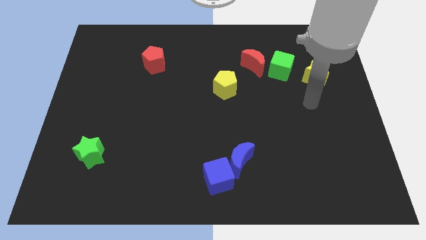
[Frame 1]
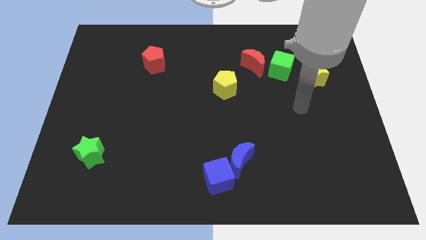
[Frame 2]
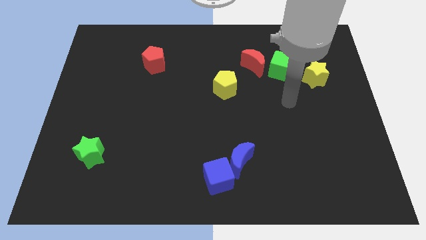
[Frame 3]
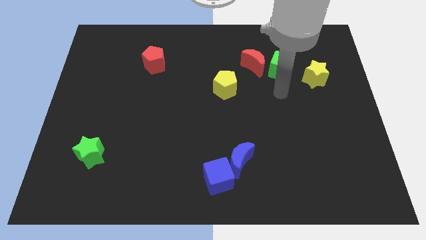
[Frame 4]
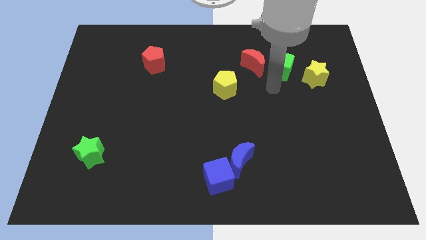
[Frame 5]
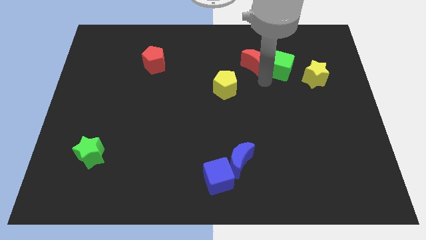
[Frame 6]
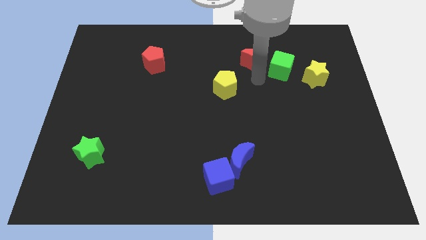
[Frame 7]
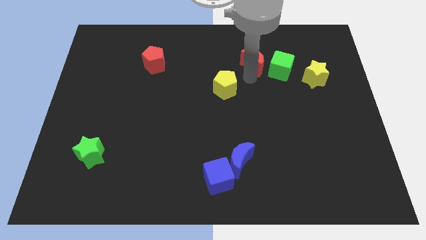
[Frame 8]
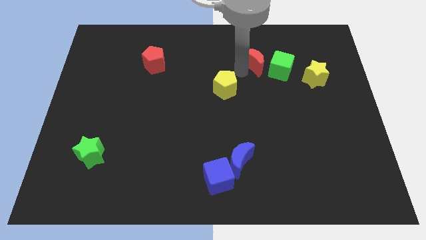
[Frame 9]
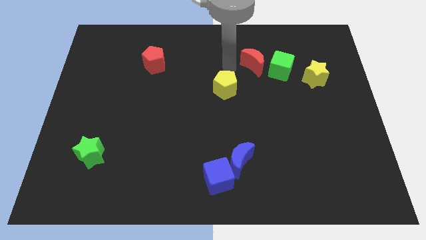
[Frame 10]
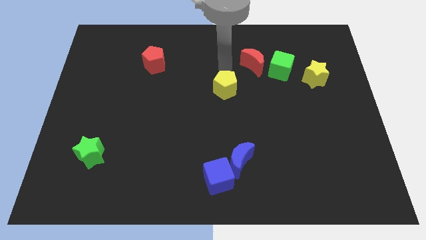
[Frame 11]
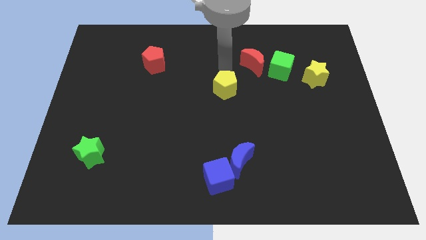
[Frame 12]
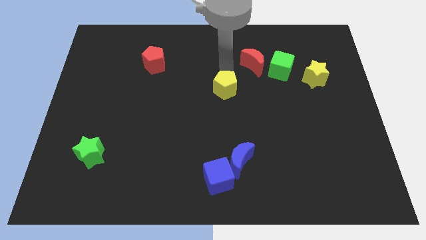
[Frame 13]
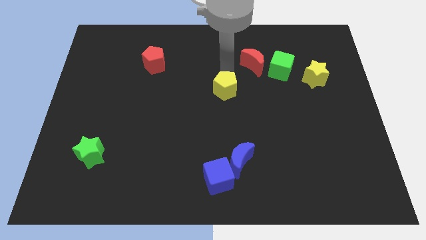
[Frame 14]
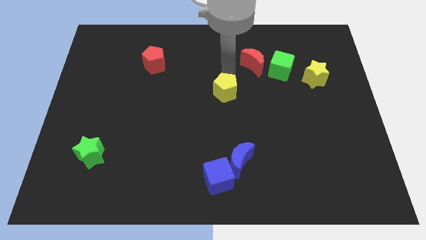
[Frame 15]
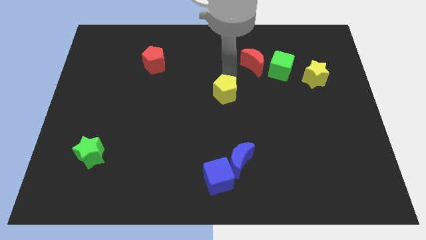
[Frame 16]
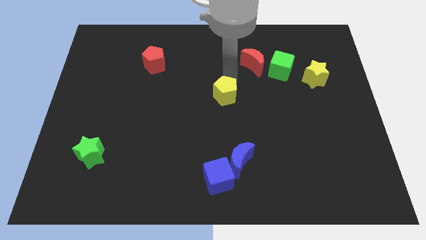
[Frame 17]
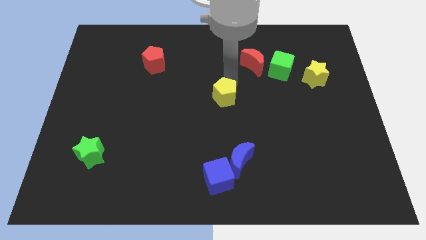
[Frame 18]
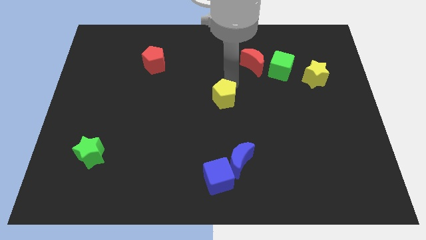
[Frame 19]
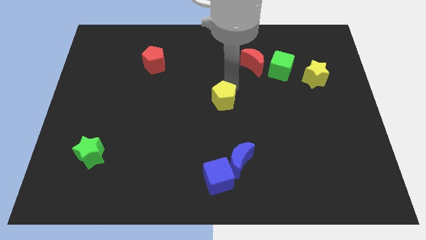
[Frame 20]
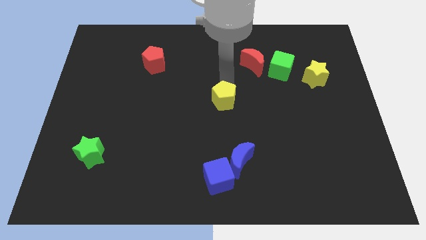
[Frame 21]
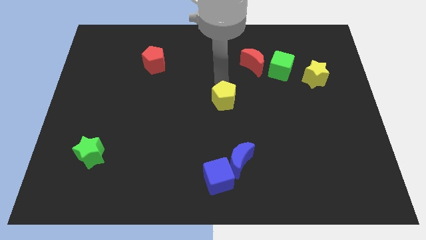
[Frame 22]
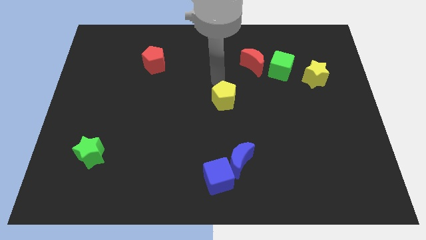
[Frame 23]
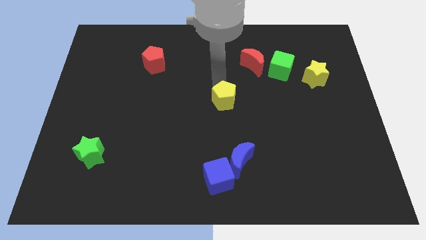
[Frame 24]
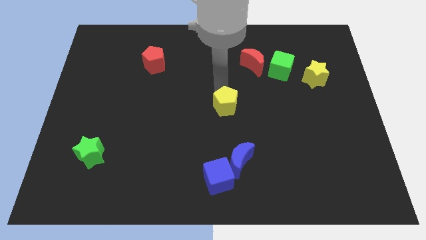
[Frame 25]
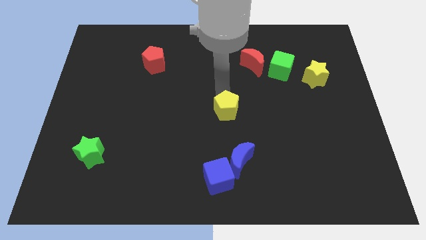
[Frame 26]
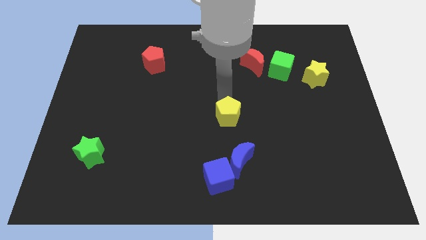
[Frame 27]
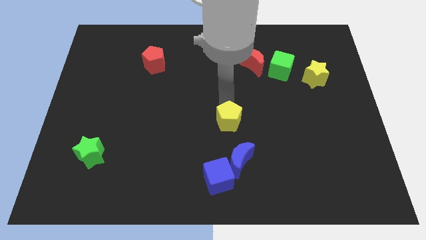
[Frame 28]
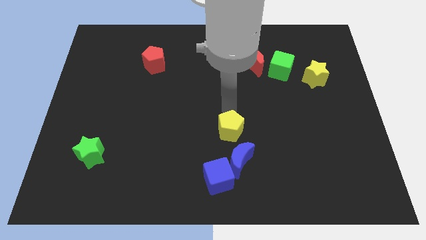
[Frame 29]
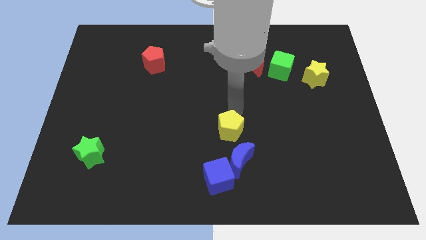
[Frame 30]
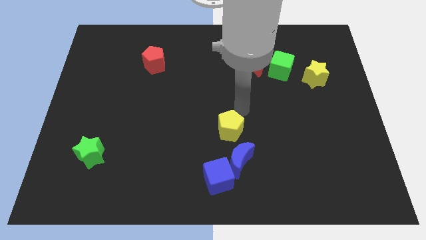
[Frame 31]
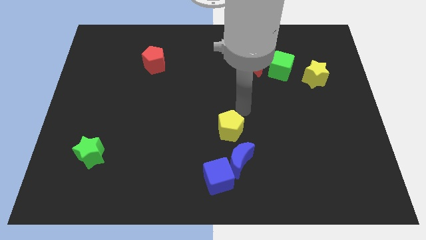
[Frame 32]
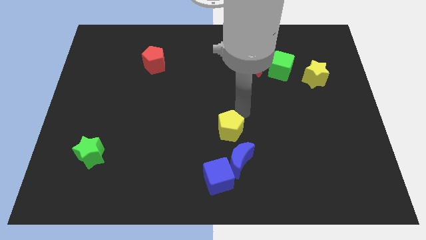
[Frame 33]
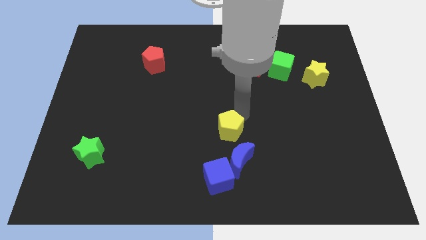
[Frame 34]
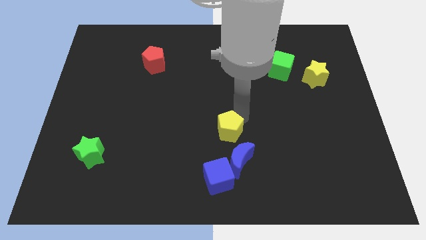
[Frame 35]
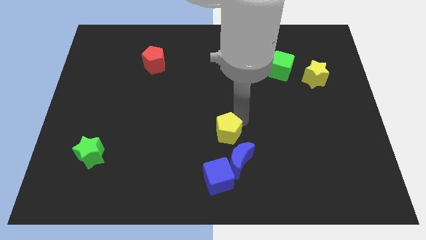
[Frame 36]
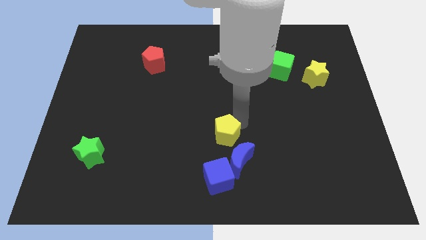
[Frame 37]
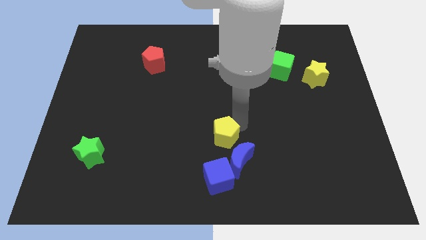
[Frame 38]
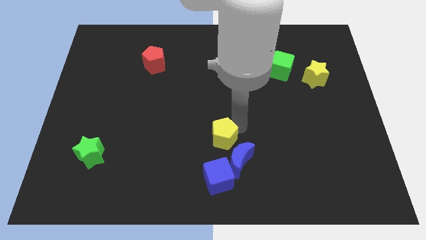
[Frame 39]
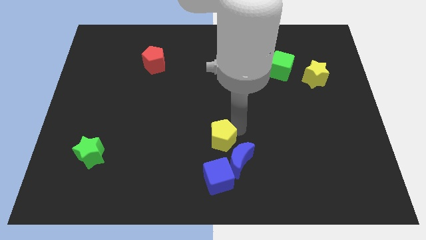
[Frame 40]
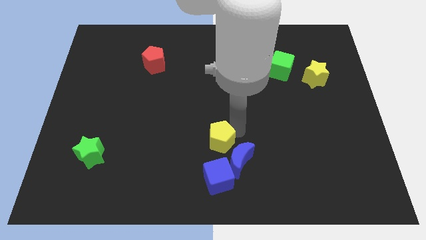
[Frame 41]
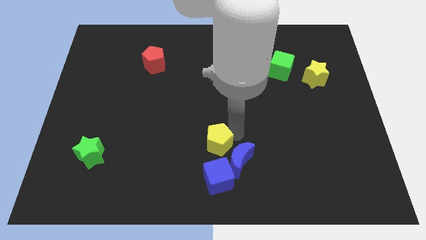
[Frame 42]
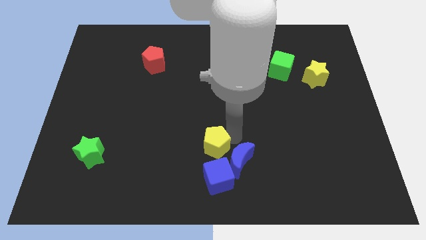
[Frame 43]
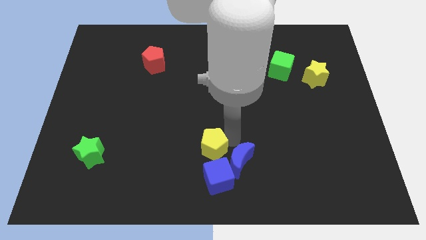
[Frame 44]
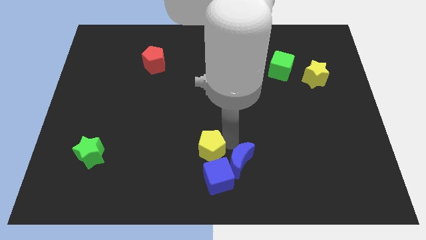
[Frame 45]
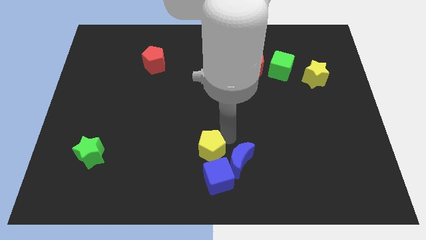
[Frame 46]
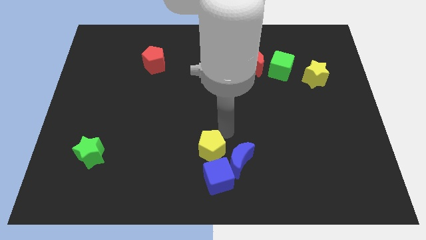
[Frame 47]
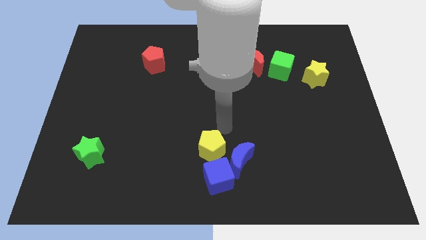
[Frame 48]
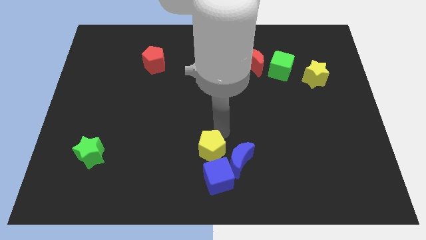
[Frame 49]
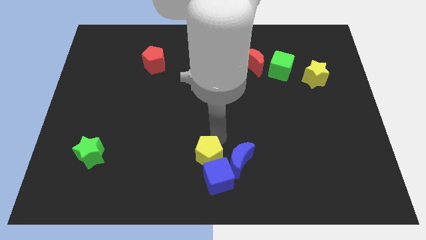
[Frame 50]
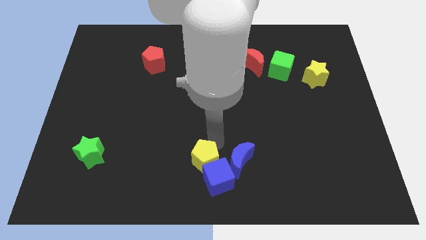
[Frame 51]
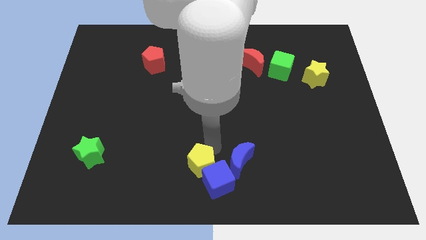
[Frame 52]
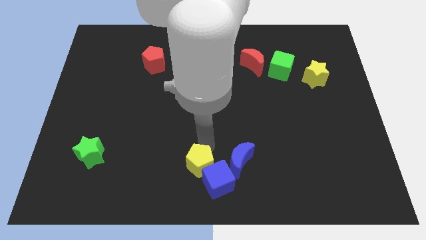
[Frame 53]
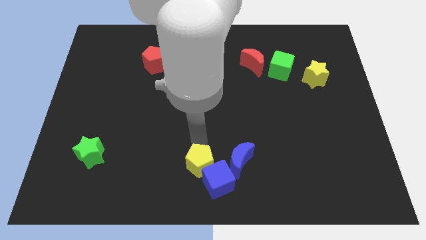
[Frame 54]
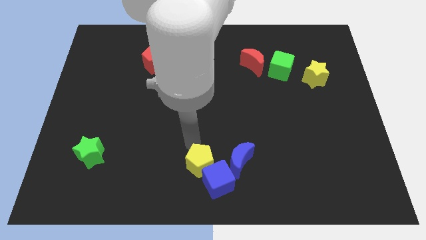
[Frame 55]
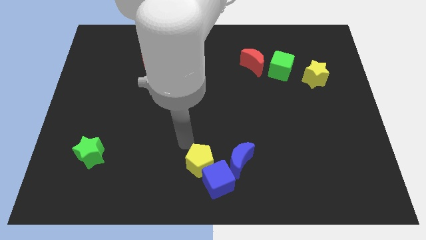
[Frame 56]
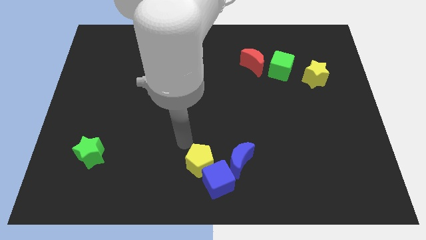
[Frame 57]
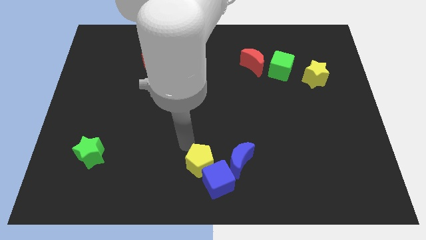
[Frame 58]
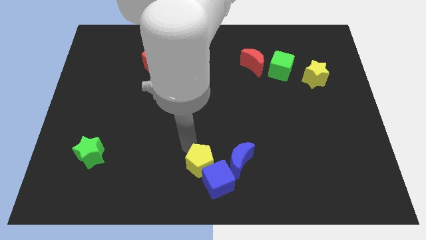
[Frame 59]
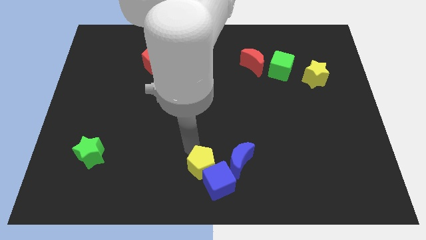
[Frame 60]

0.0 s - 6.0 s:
move the yellow pentagon to the bottom left side of the blue moon

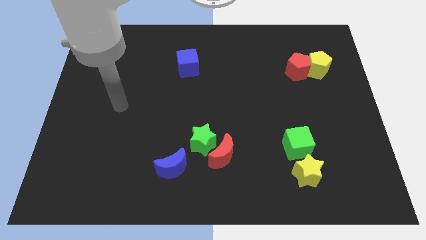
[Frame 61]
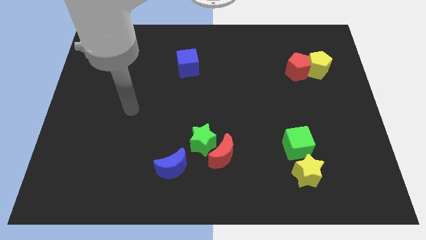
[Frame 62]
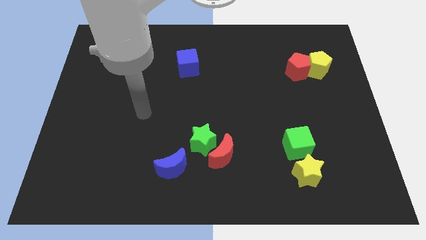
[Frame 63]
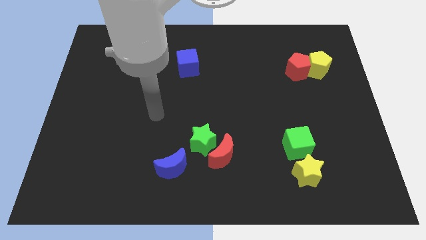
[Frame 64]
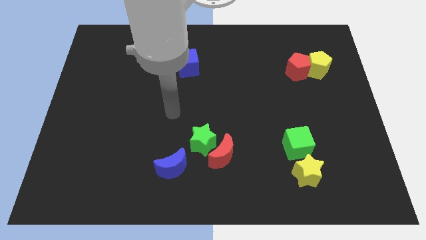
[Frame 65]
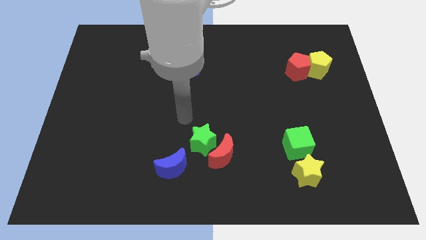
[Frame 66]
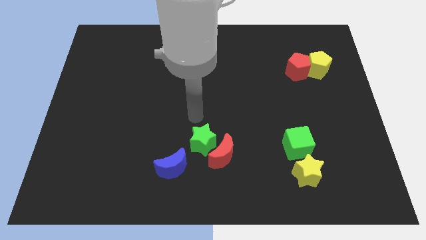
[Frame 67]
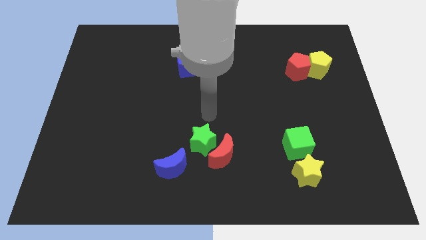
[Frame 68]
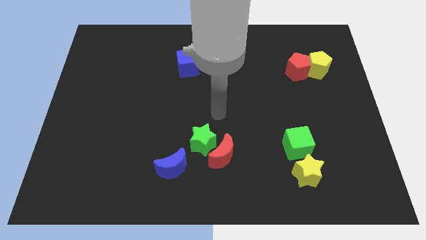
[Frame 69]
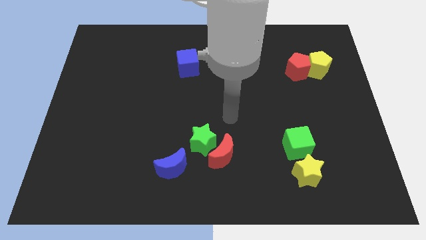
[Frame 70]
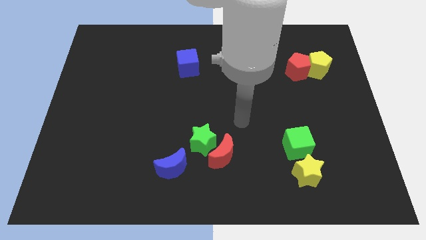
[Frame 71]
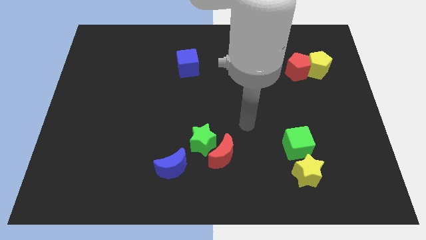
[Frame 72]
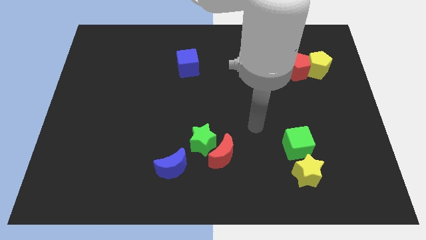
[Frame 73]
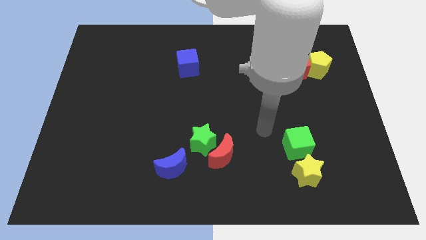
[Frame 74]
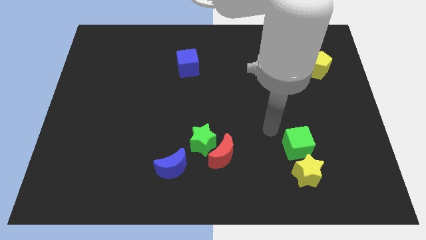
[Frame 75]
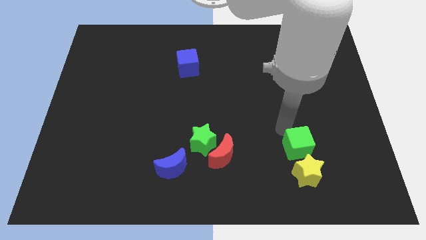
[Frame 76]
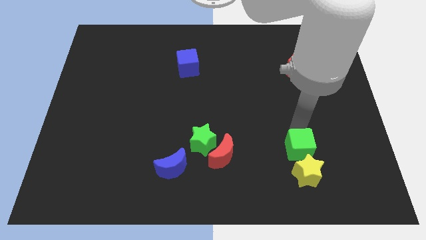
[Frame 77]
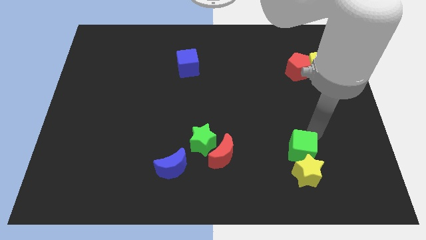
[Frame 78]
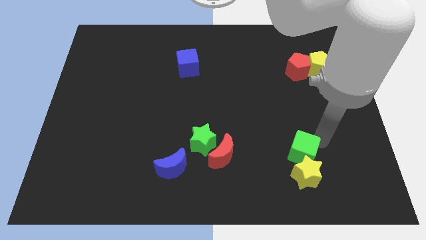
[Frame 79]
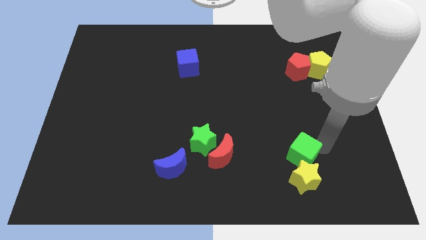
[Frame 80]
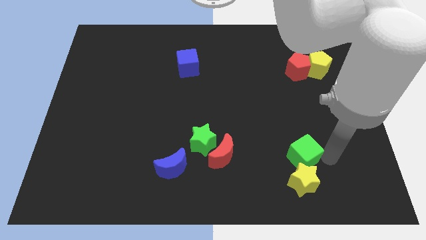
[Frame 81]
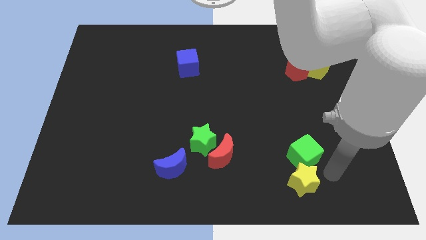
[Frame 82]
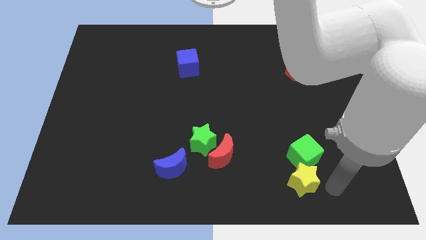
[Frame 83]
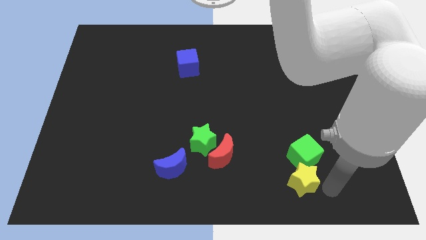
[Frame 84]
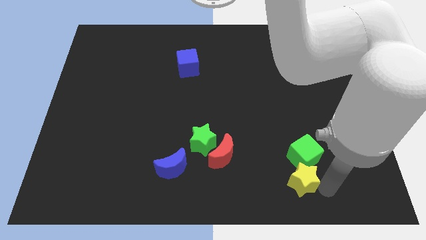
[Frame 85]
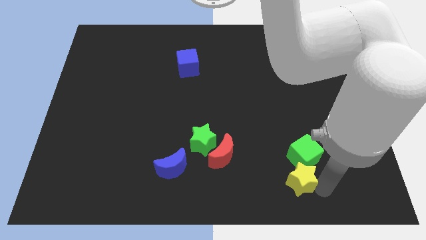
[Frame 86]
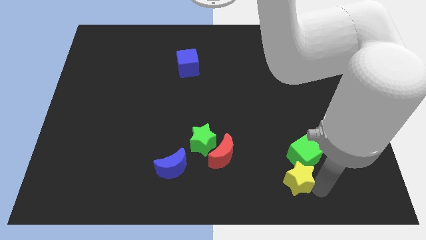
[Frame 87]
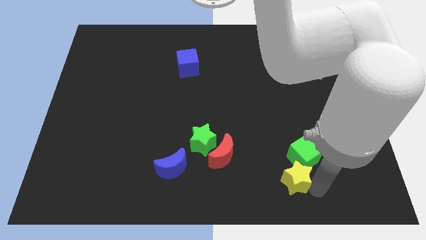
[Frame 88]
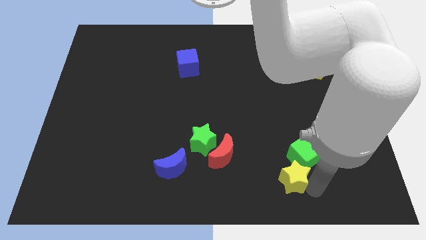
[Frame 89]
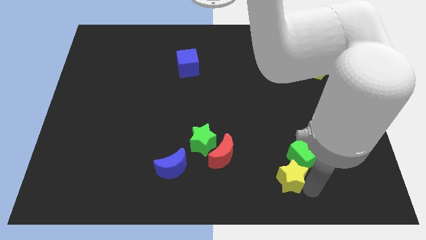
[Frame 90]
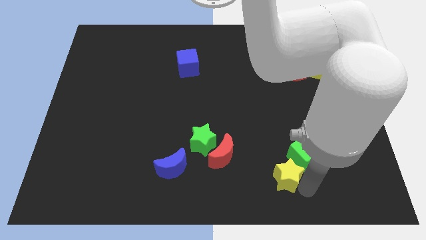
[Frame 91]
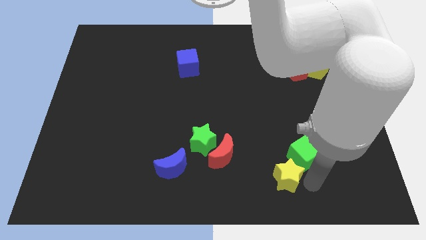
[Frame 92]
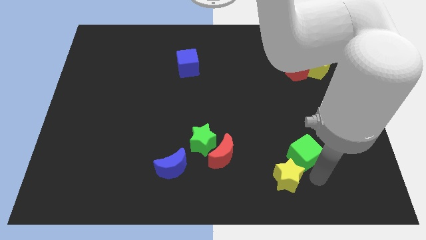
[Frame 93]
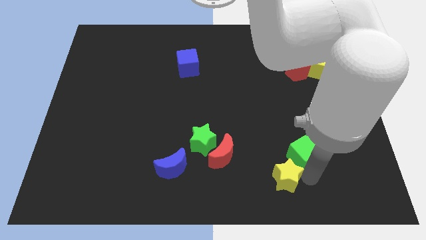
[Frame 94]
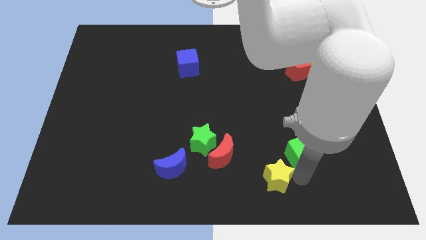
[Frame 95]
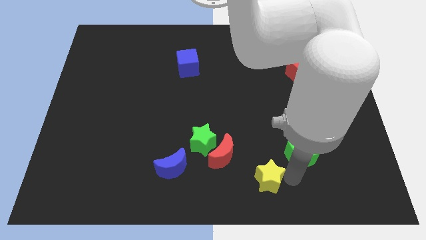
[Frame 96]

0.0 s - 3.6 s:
push the yellow star to the bottom right of the red moon
